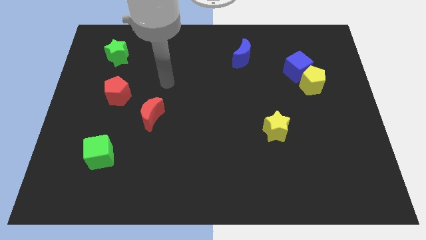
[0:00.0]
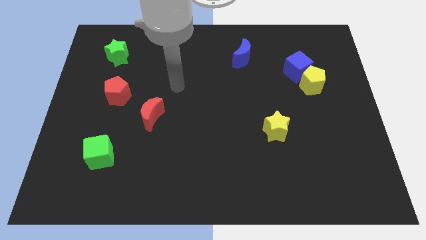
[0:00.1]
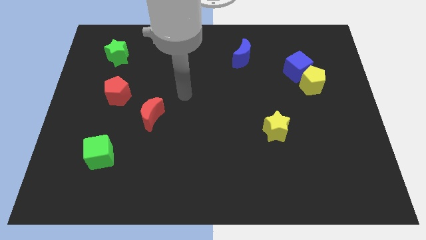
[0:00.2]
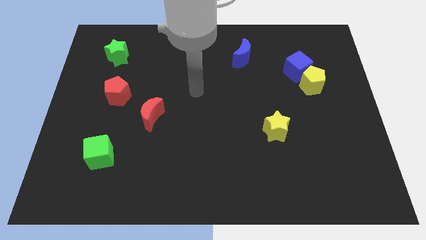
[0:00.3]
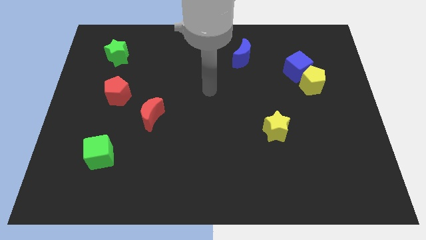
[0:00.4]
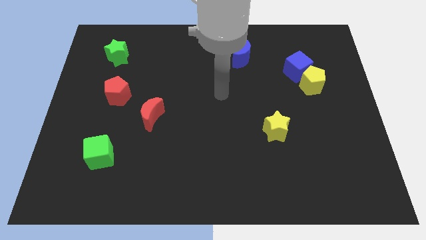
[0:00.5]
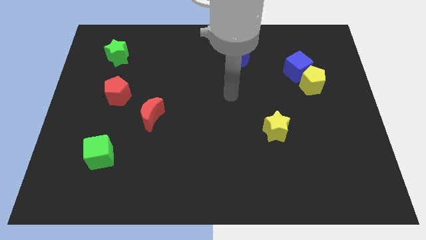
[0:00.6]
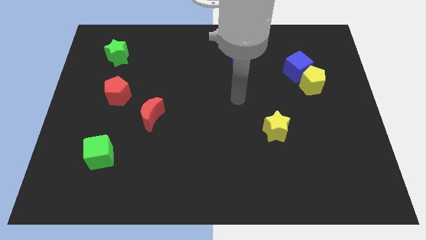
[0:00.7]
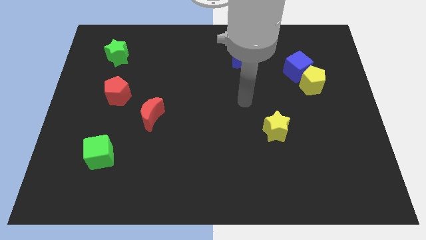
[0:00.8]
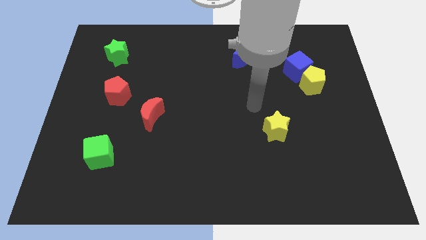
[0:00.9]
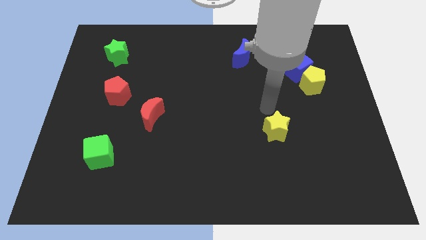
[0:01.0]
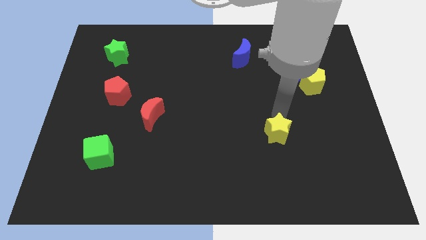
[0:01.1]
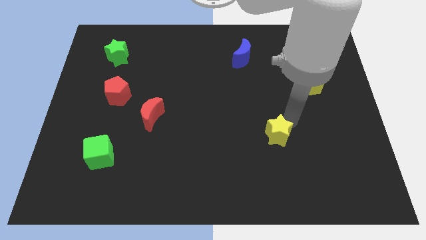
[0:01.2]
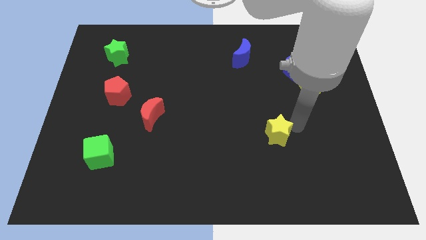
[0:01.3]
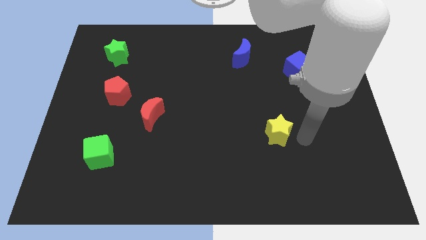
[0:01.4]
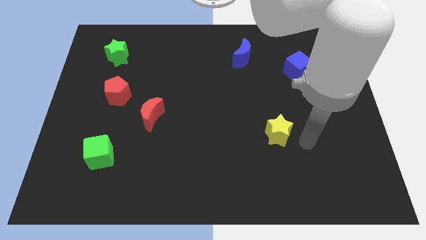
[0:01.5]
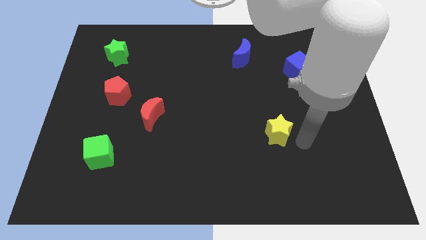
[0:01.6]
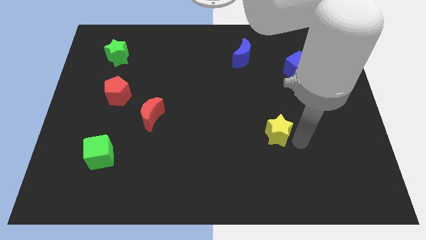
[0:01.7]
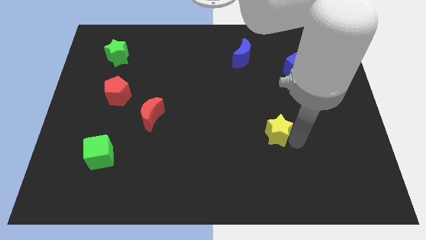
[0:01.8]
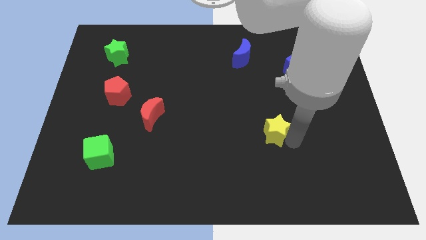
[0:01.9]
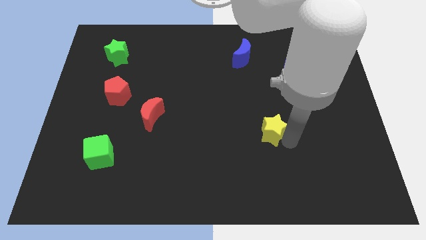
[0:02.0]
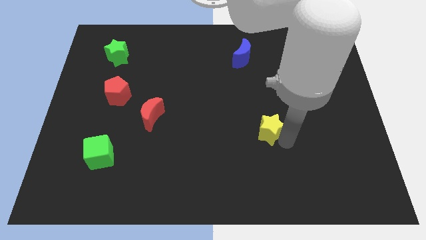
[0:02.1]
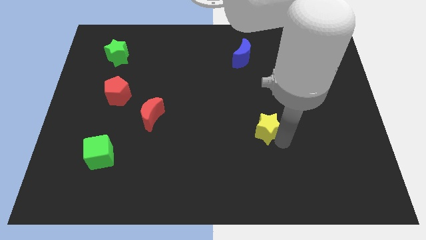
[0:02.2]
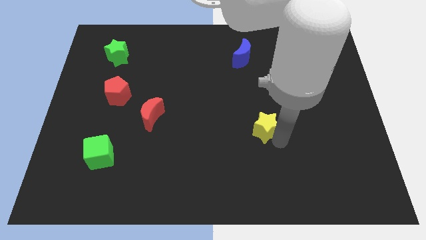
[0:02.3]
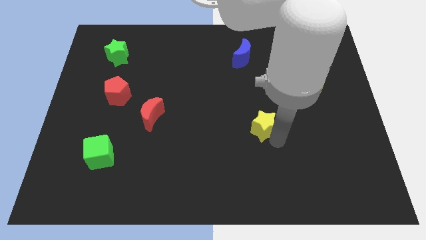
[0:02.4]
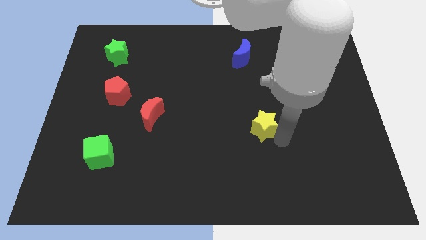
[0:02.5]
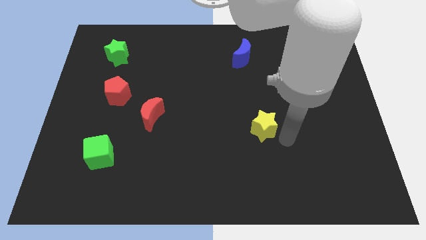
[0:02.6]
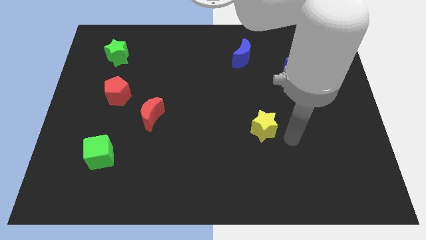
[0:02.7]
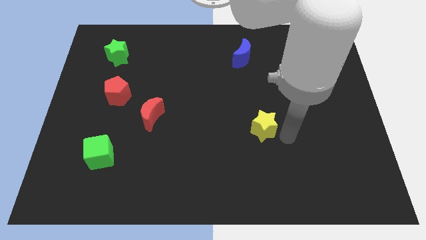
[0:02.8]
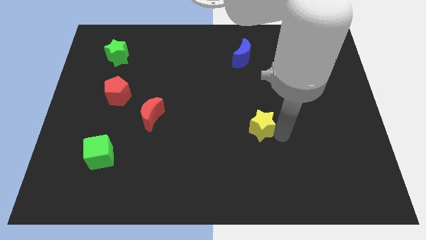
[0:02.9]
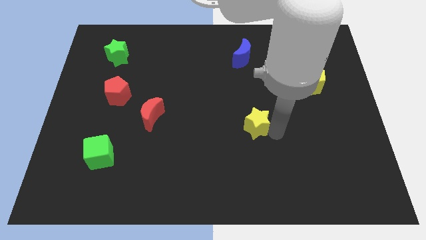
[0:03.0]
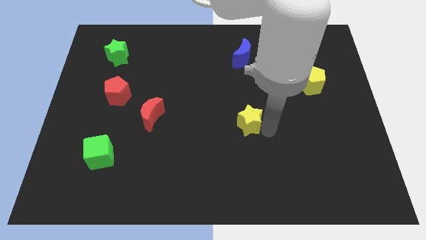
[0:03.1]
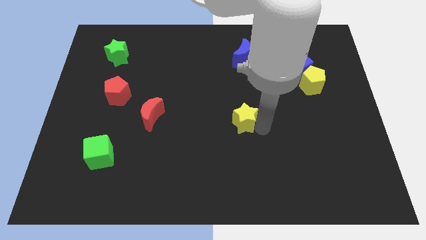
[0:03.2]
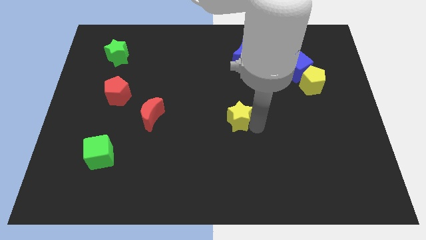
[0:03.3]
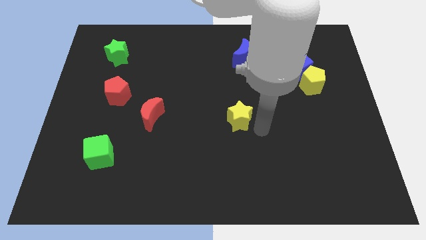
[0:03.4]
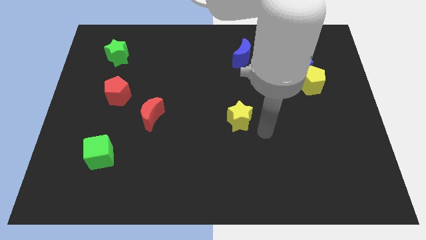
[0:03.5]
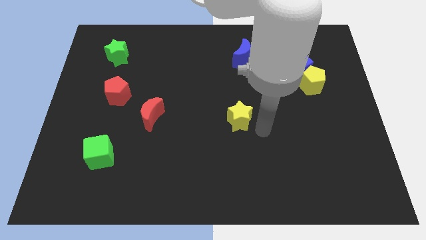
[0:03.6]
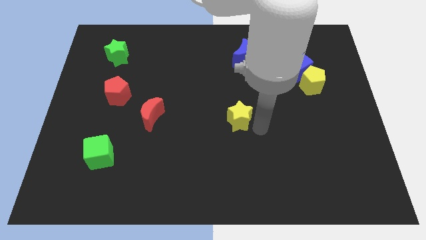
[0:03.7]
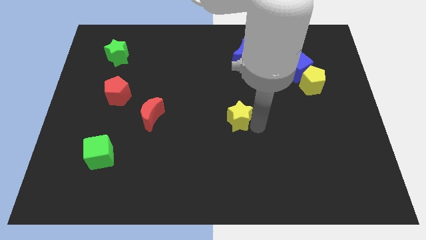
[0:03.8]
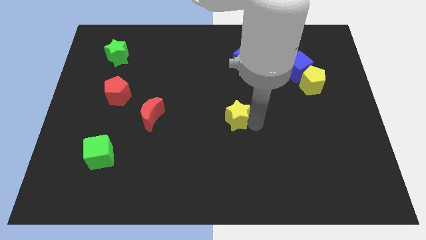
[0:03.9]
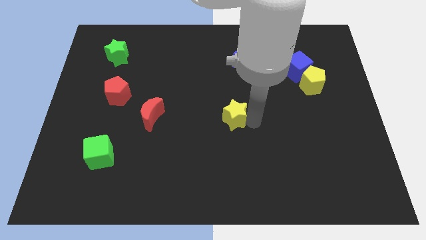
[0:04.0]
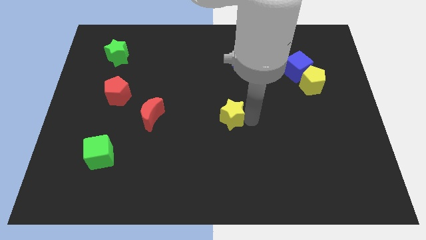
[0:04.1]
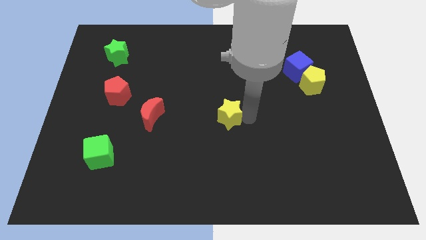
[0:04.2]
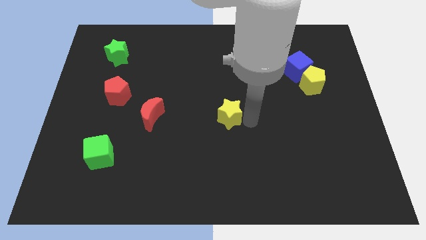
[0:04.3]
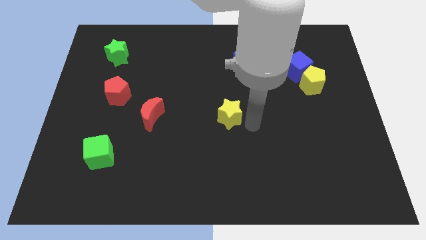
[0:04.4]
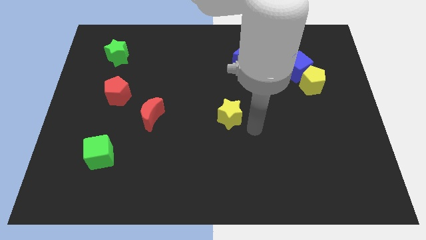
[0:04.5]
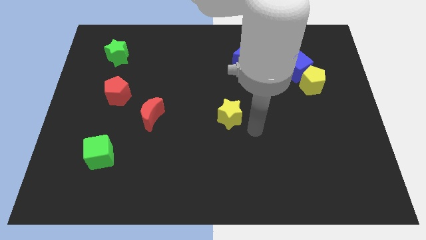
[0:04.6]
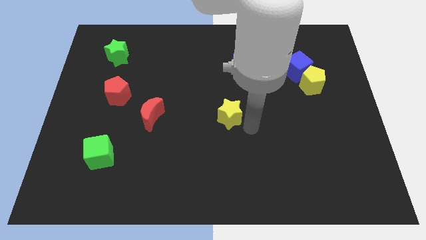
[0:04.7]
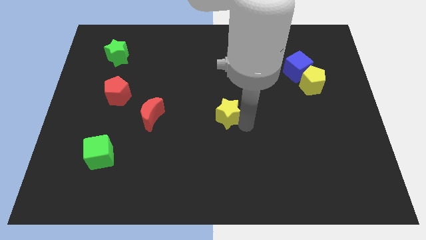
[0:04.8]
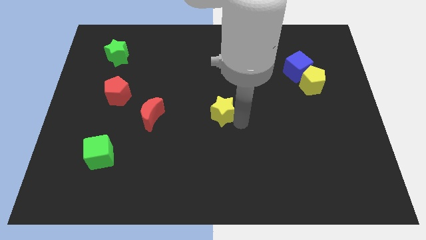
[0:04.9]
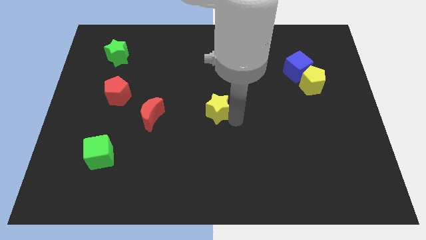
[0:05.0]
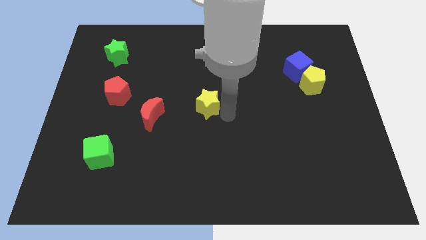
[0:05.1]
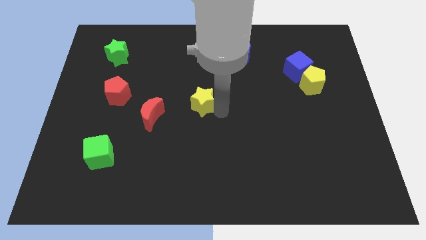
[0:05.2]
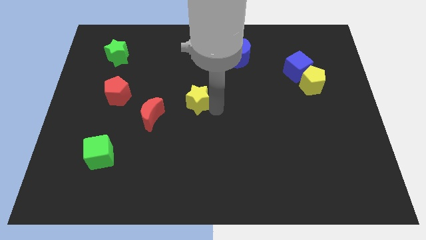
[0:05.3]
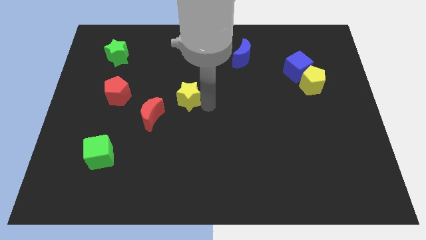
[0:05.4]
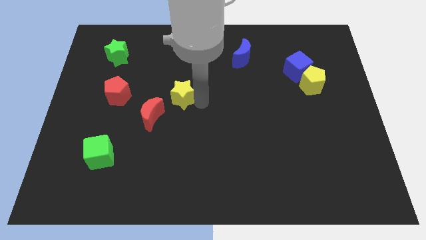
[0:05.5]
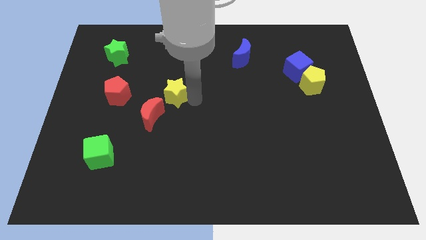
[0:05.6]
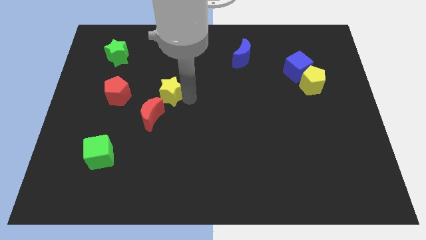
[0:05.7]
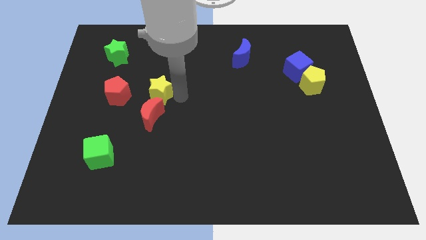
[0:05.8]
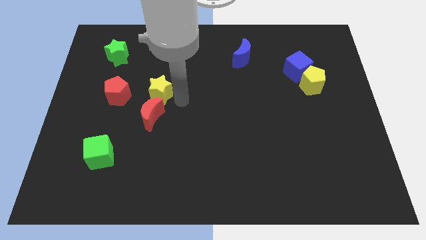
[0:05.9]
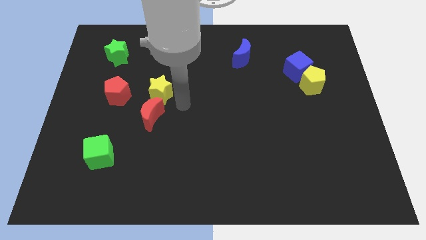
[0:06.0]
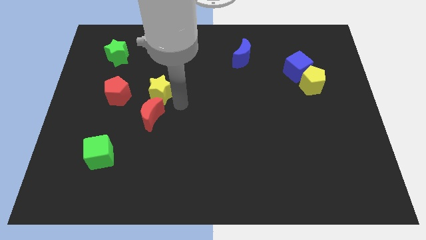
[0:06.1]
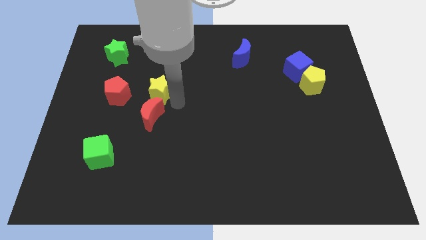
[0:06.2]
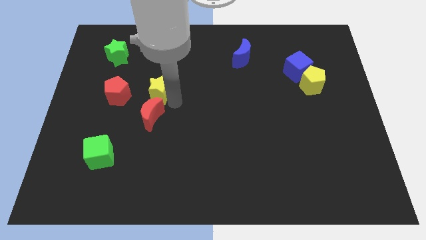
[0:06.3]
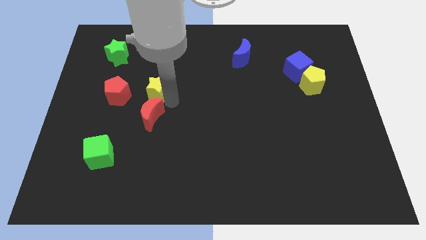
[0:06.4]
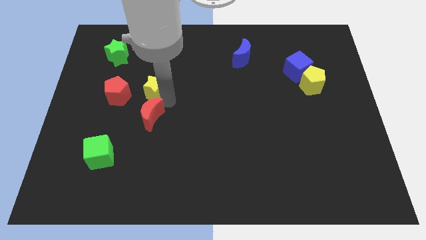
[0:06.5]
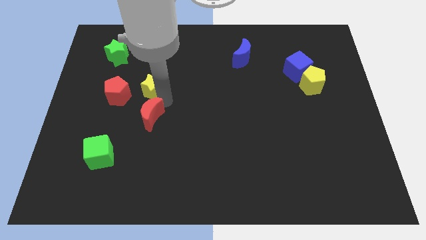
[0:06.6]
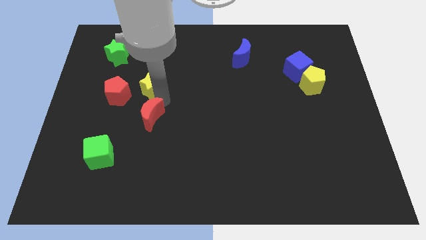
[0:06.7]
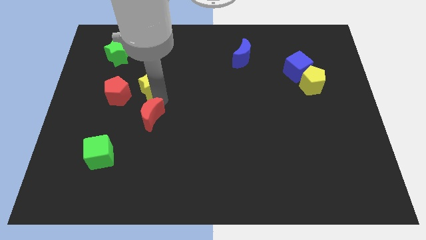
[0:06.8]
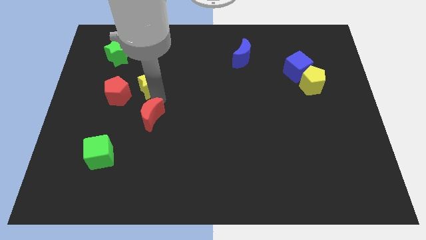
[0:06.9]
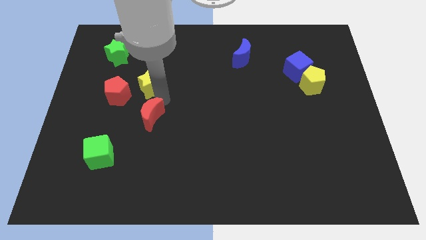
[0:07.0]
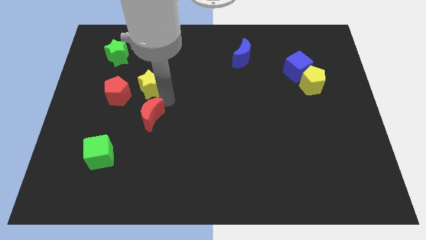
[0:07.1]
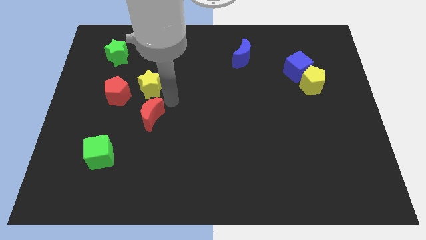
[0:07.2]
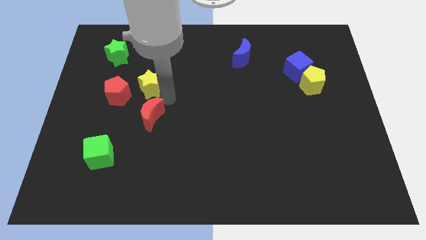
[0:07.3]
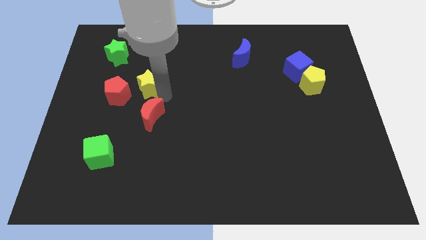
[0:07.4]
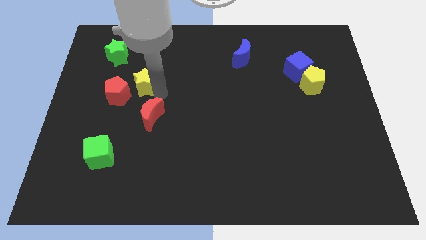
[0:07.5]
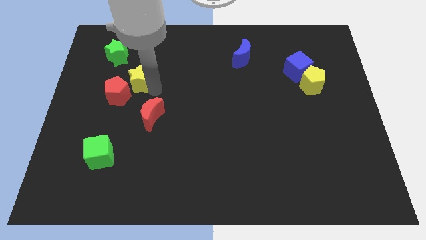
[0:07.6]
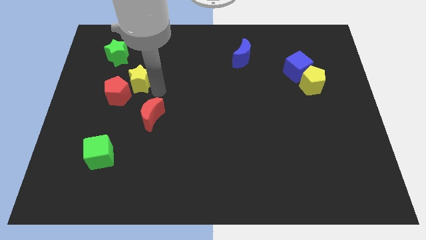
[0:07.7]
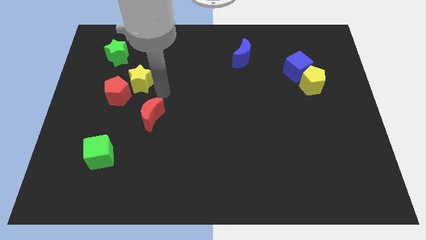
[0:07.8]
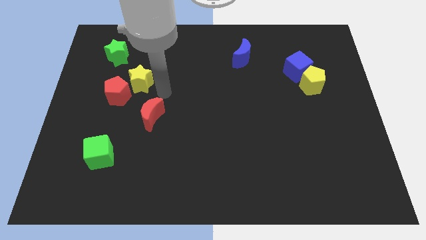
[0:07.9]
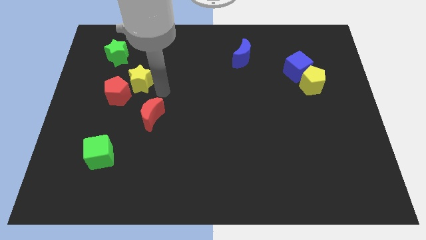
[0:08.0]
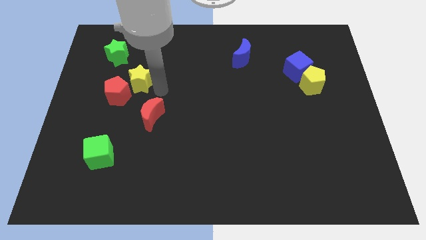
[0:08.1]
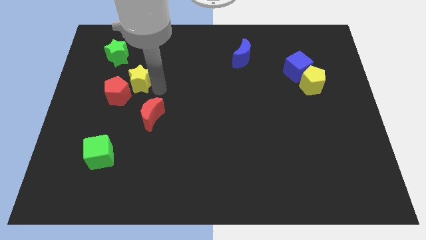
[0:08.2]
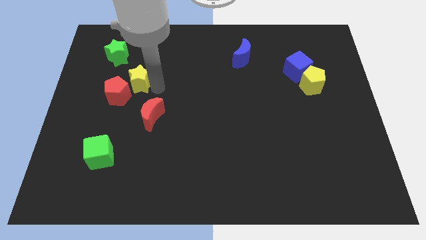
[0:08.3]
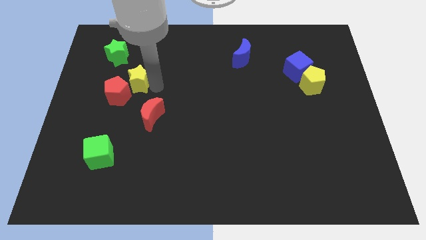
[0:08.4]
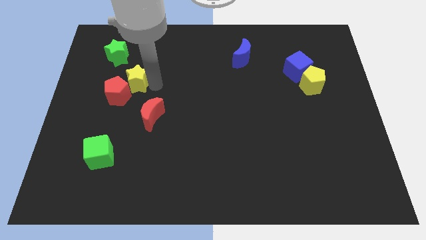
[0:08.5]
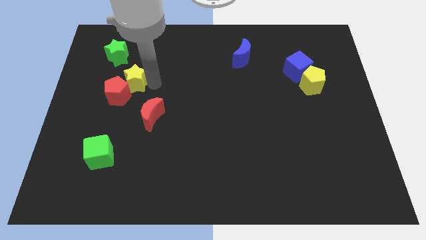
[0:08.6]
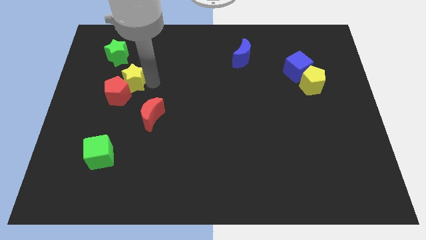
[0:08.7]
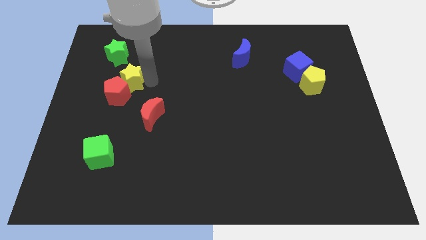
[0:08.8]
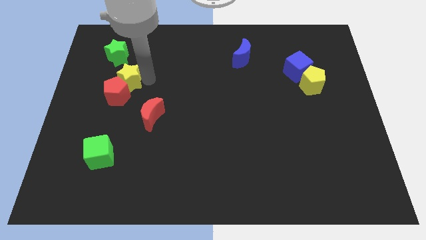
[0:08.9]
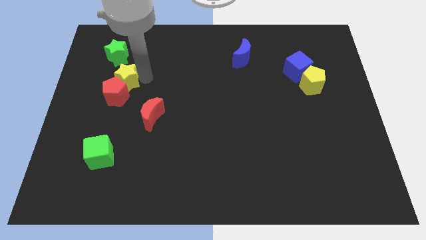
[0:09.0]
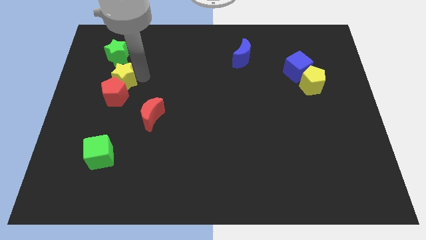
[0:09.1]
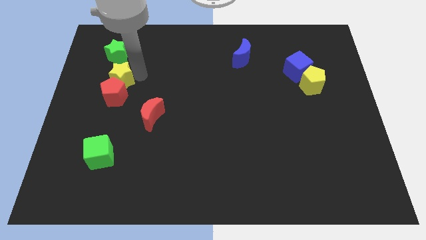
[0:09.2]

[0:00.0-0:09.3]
move the yellow star to the top left side of the red pentagon
